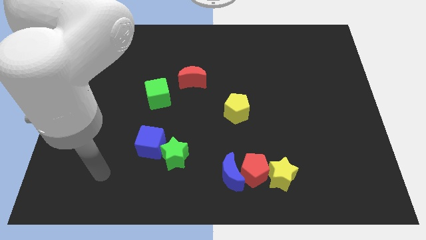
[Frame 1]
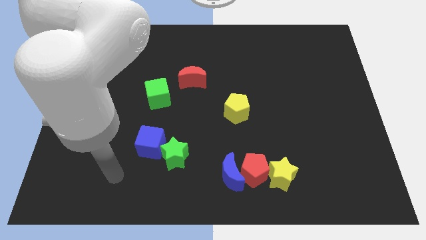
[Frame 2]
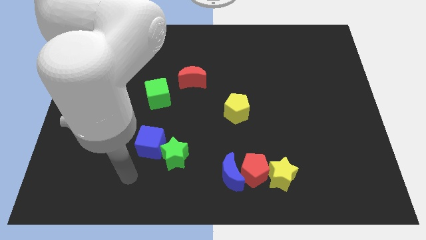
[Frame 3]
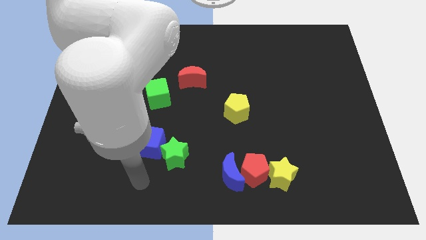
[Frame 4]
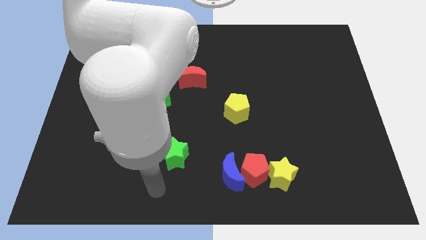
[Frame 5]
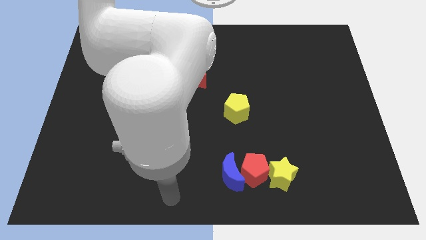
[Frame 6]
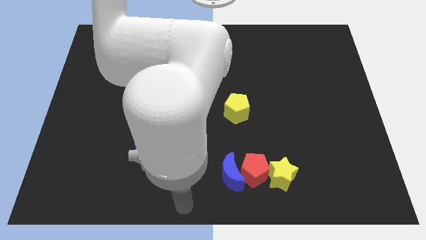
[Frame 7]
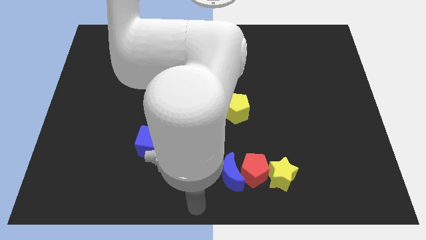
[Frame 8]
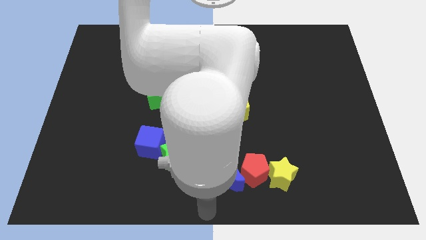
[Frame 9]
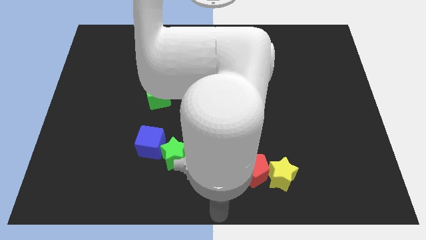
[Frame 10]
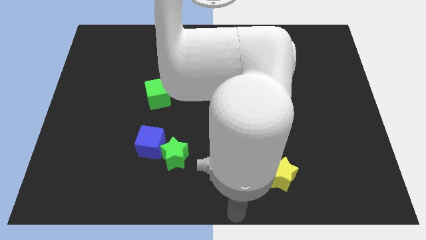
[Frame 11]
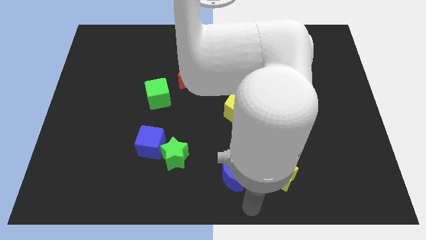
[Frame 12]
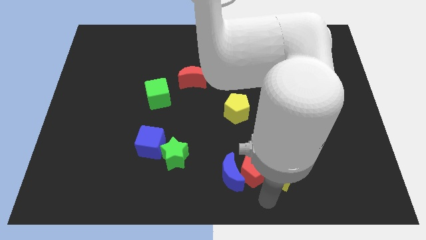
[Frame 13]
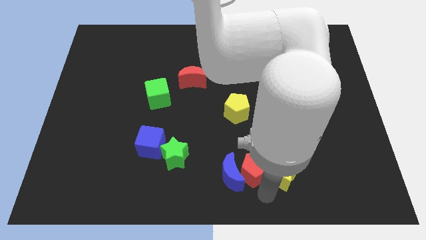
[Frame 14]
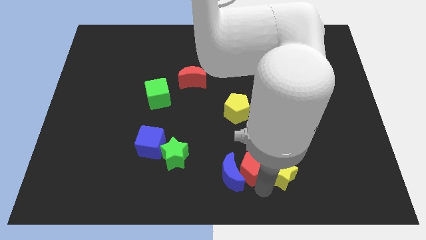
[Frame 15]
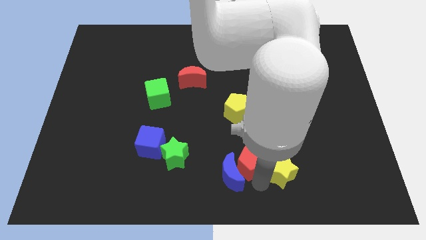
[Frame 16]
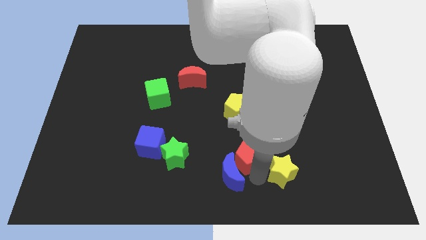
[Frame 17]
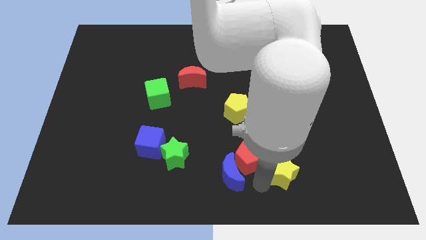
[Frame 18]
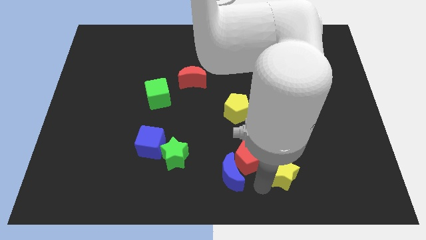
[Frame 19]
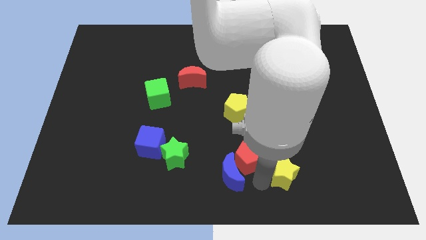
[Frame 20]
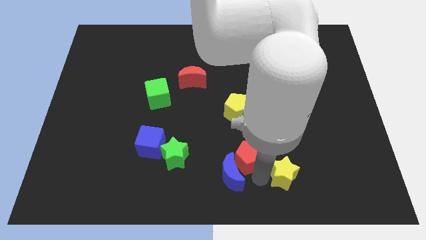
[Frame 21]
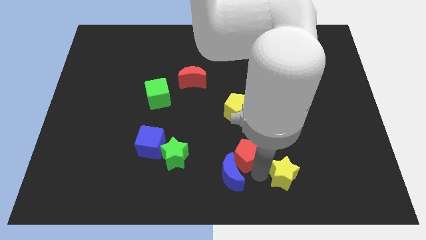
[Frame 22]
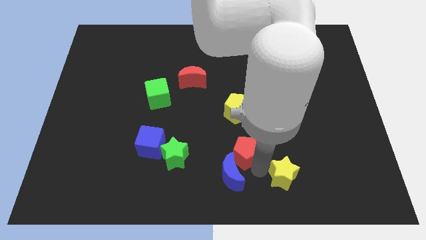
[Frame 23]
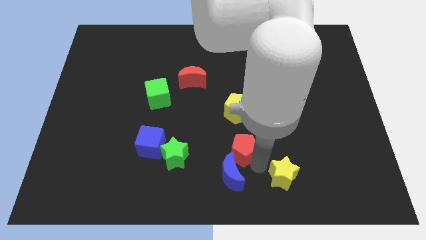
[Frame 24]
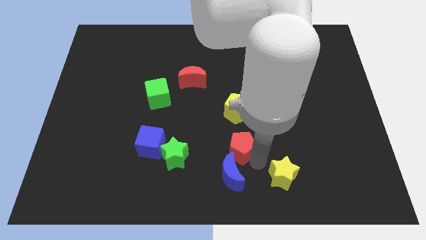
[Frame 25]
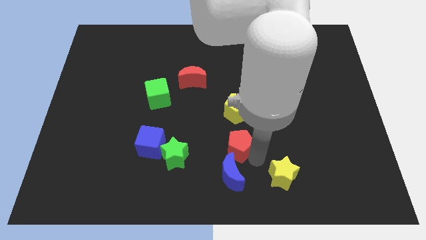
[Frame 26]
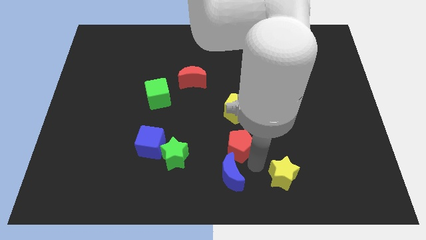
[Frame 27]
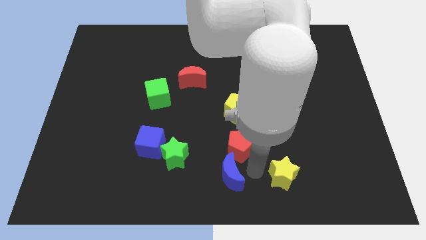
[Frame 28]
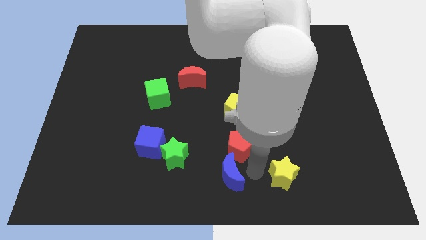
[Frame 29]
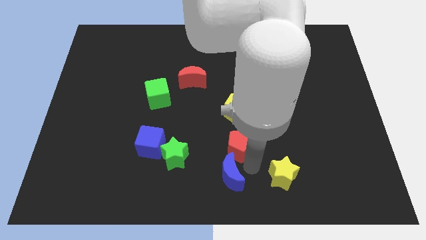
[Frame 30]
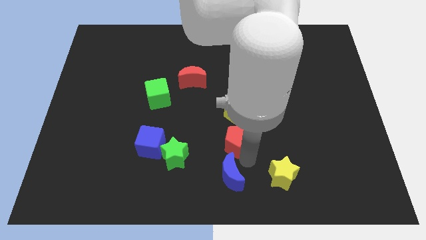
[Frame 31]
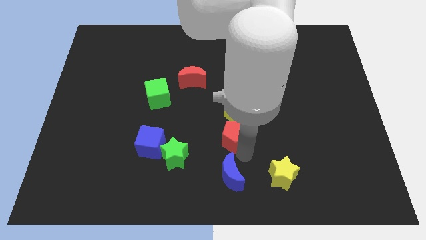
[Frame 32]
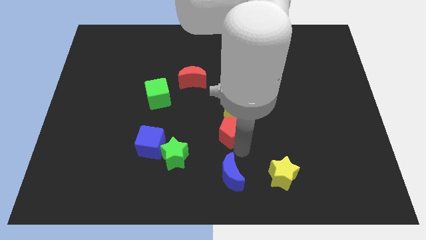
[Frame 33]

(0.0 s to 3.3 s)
separate the red pentagon from the blue moon and yellow star

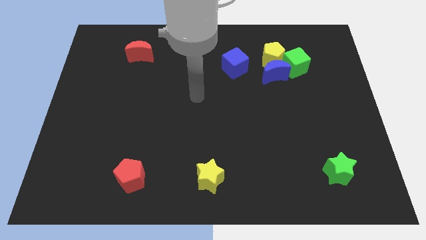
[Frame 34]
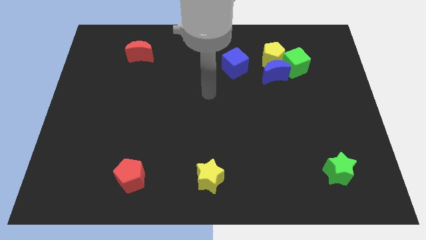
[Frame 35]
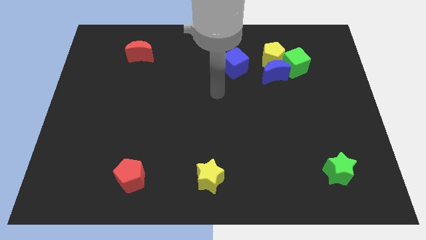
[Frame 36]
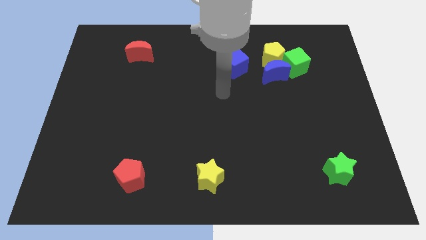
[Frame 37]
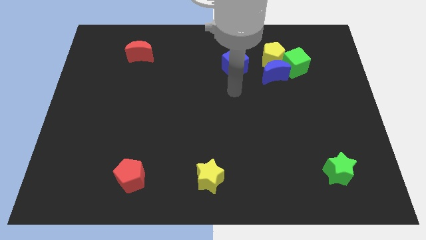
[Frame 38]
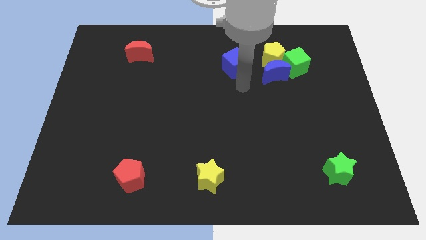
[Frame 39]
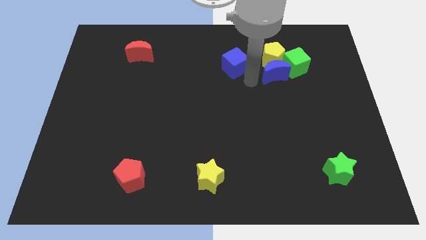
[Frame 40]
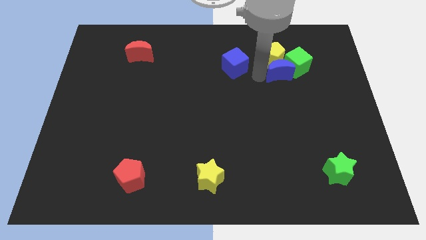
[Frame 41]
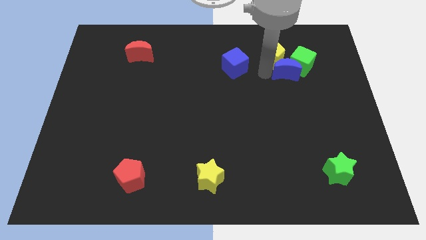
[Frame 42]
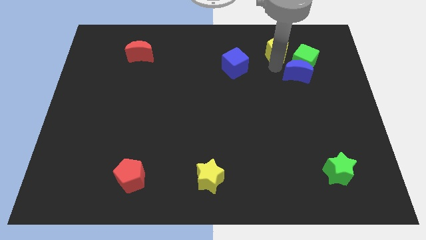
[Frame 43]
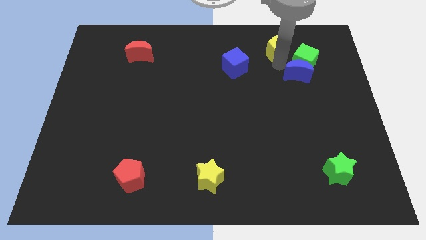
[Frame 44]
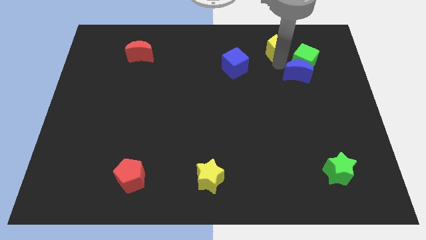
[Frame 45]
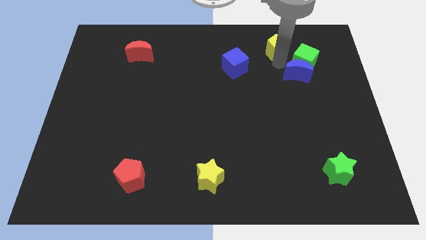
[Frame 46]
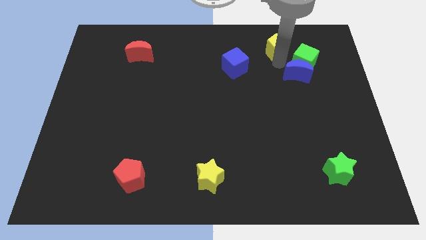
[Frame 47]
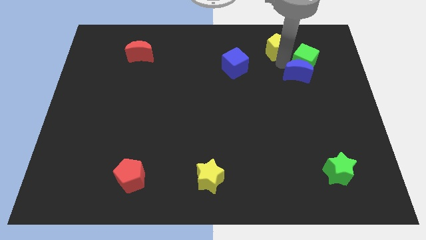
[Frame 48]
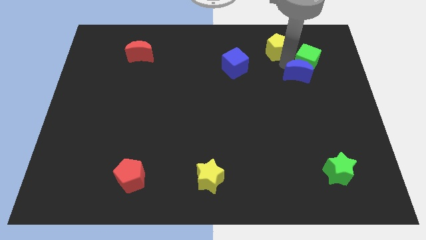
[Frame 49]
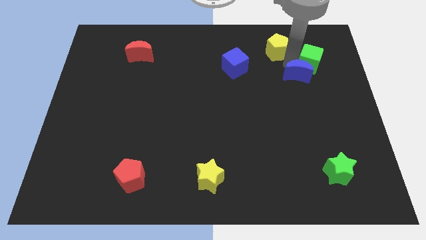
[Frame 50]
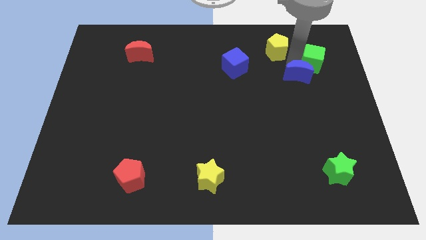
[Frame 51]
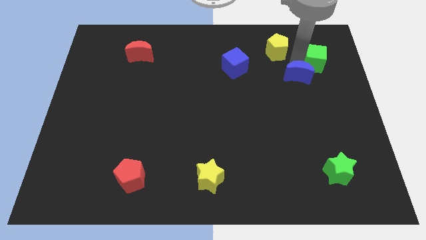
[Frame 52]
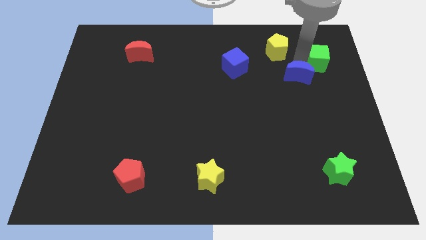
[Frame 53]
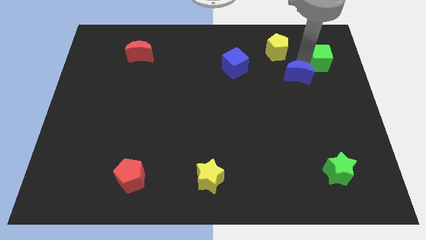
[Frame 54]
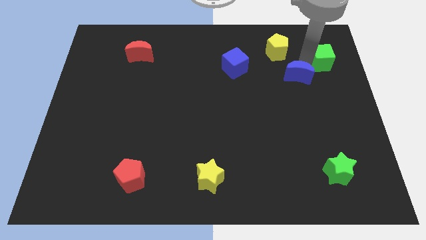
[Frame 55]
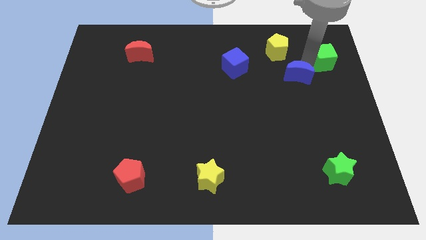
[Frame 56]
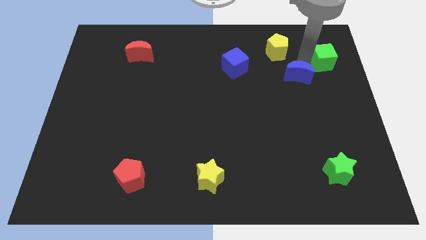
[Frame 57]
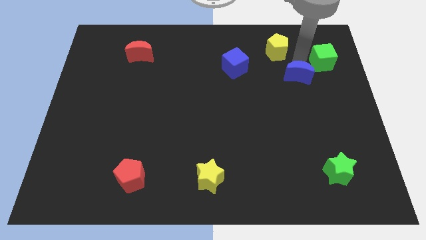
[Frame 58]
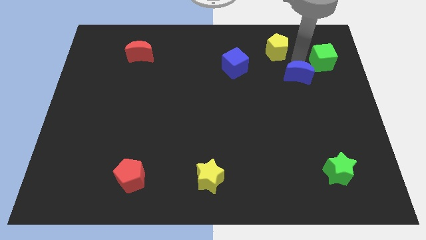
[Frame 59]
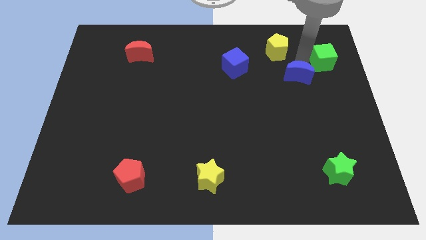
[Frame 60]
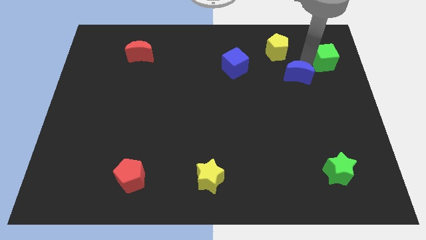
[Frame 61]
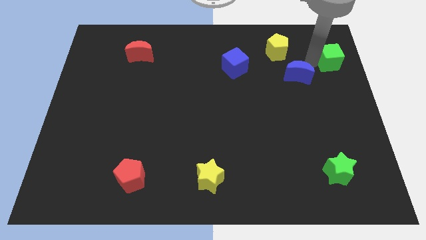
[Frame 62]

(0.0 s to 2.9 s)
separate the green cube from the yellow pentagon and blue moon

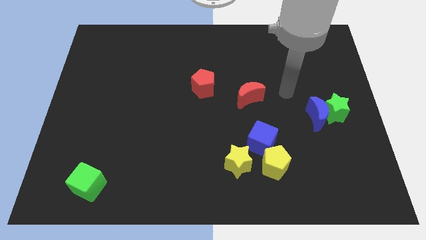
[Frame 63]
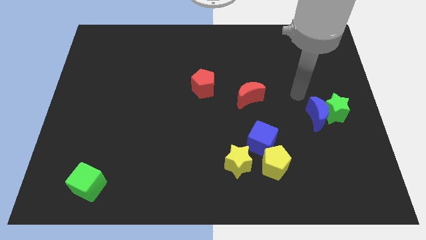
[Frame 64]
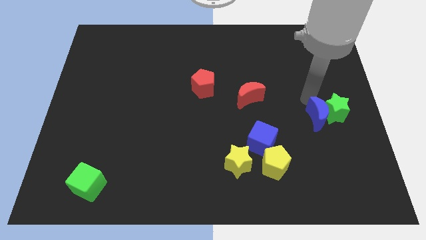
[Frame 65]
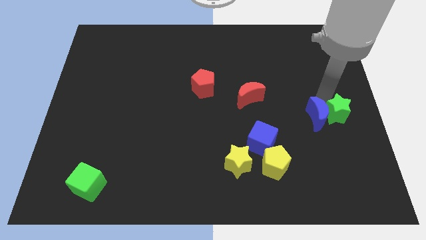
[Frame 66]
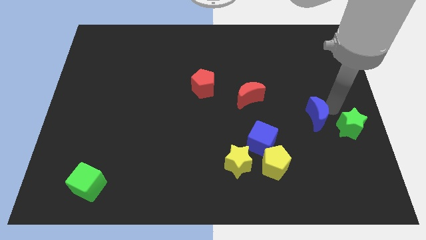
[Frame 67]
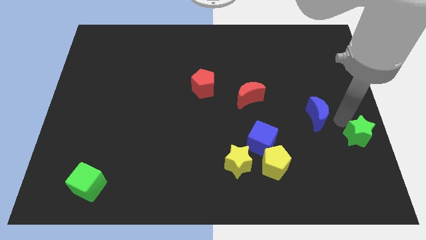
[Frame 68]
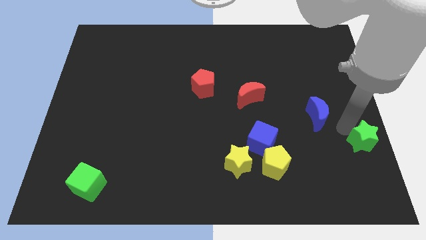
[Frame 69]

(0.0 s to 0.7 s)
separate the blue moon from the green star

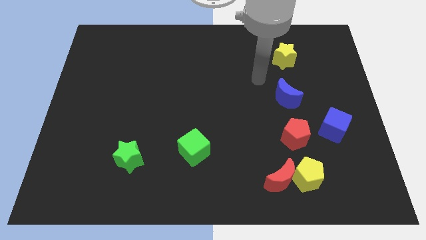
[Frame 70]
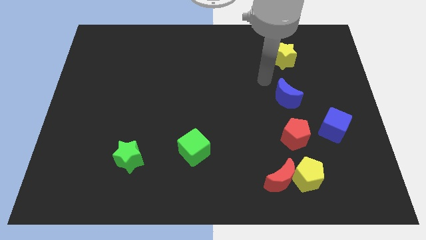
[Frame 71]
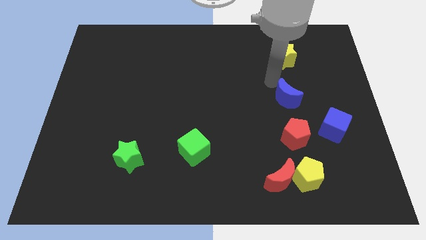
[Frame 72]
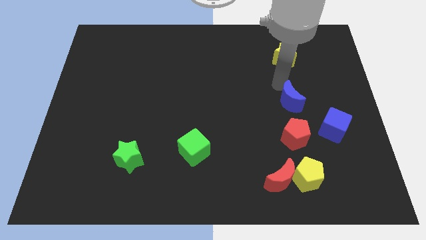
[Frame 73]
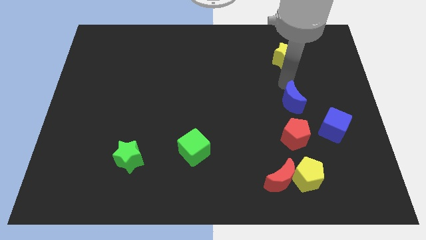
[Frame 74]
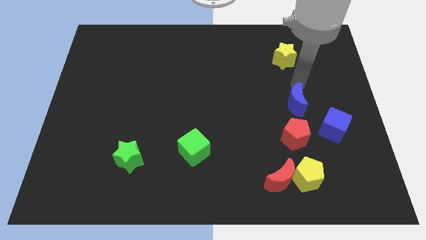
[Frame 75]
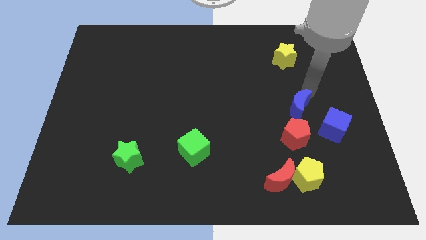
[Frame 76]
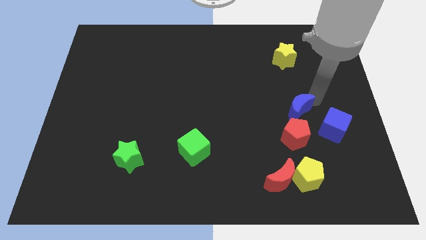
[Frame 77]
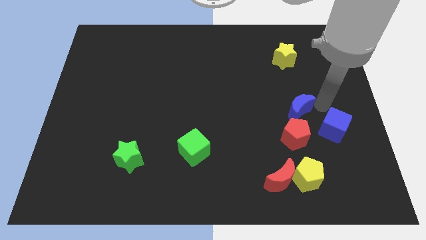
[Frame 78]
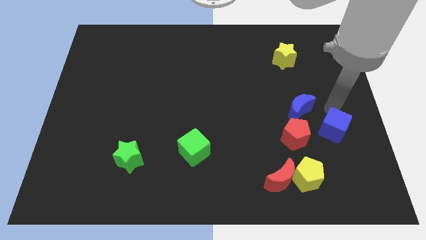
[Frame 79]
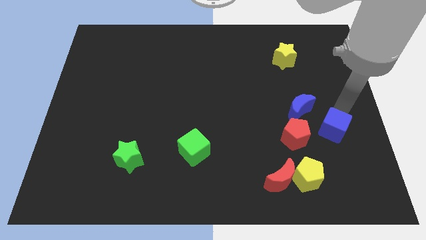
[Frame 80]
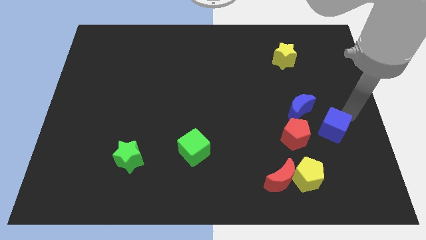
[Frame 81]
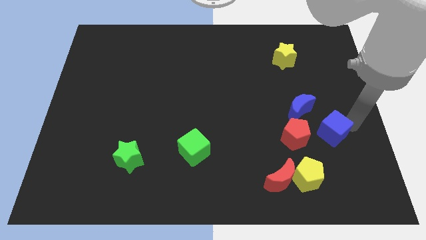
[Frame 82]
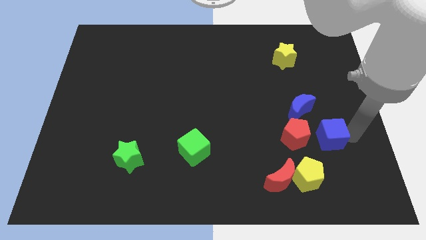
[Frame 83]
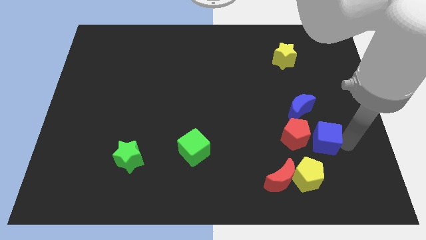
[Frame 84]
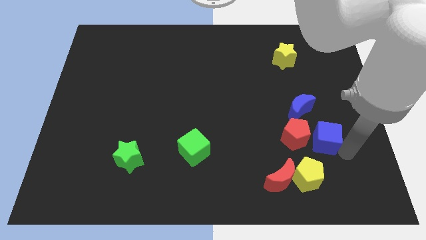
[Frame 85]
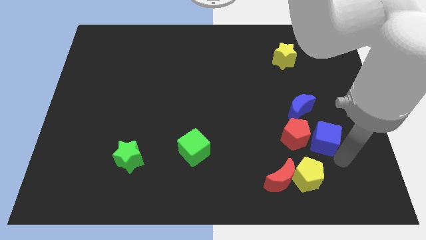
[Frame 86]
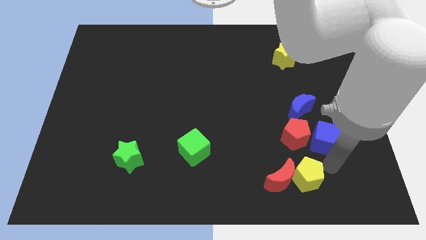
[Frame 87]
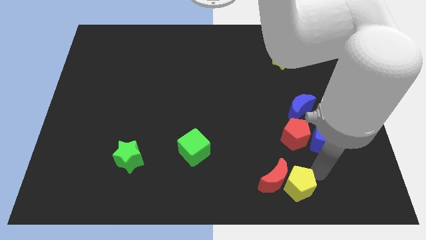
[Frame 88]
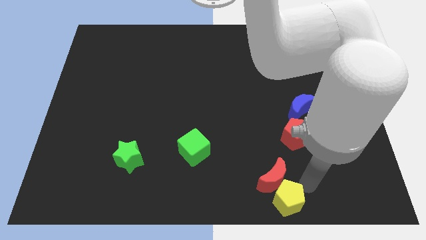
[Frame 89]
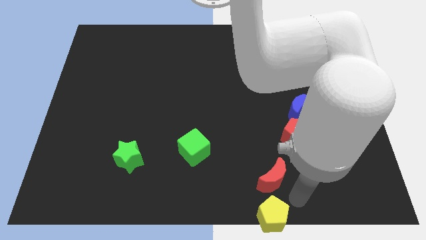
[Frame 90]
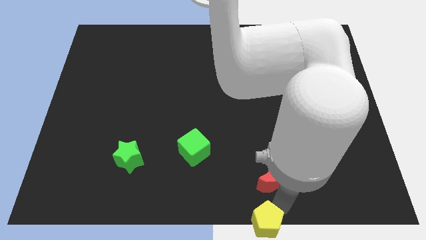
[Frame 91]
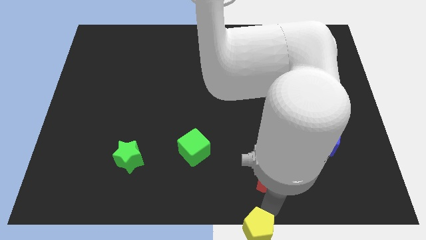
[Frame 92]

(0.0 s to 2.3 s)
move the red moon away from the yellow pentagon

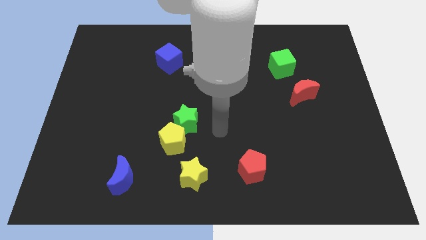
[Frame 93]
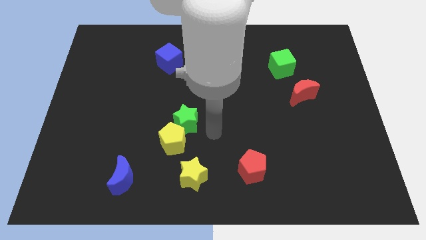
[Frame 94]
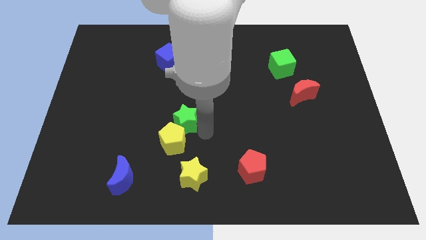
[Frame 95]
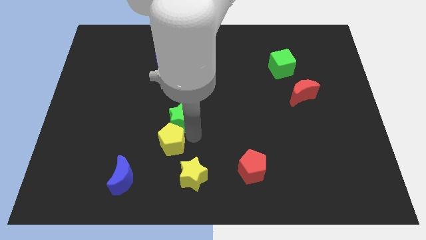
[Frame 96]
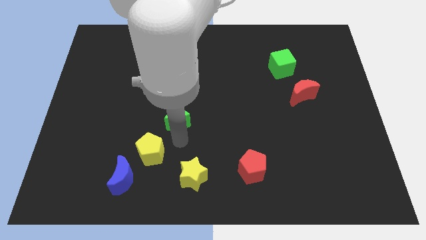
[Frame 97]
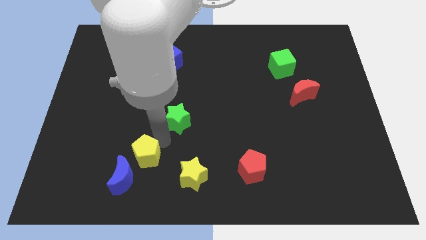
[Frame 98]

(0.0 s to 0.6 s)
separate the green star from the yellow pentagon
